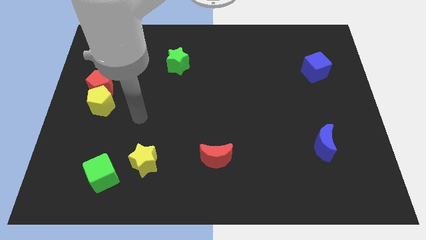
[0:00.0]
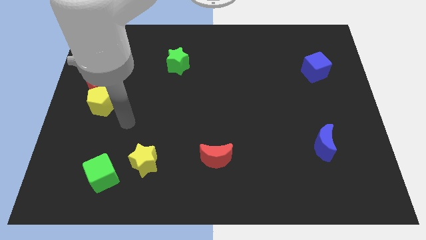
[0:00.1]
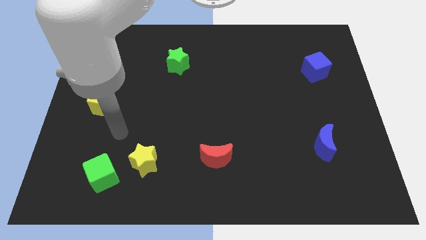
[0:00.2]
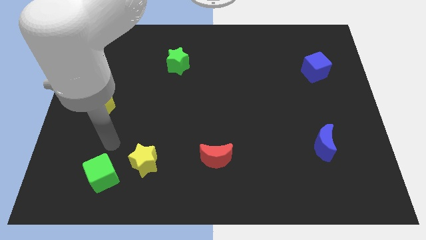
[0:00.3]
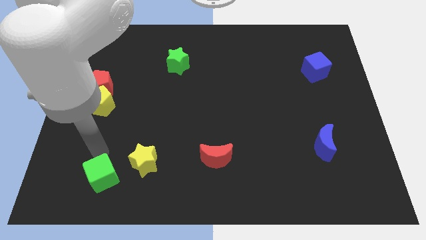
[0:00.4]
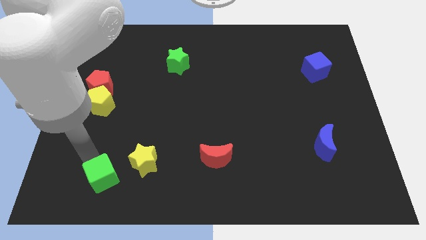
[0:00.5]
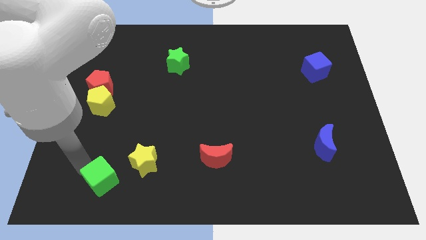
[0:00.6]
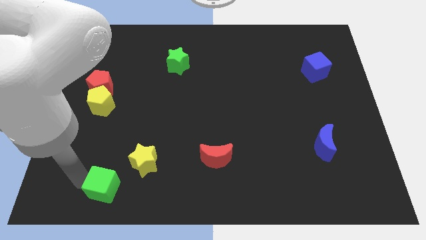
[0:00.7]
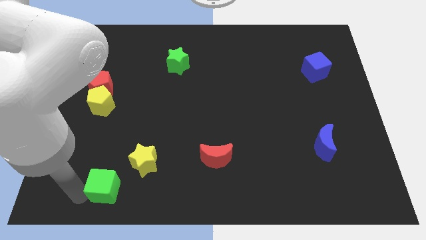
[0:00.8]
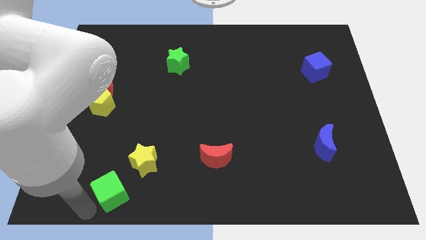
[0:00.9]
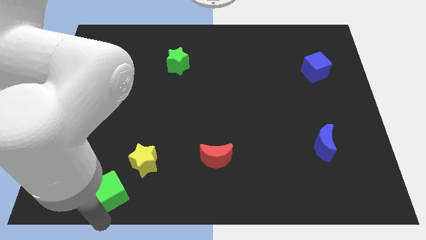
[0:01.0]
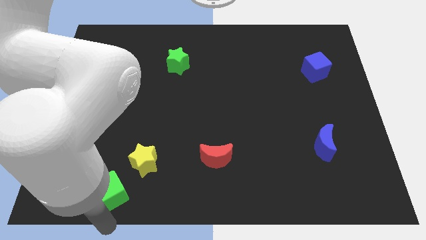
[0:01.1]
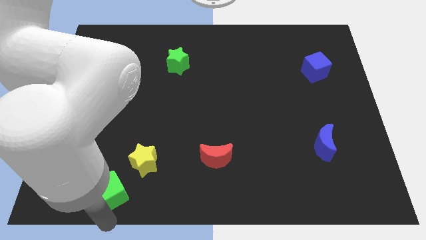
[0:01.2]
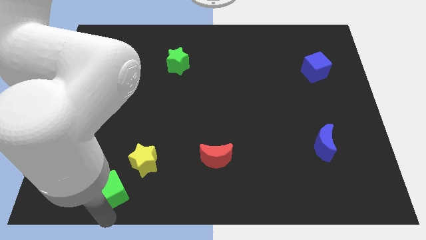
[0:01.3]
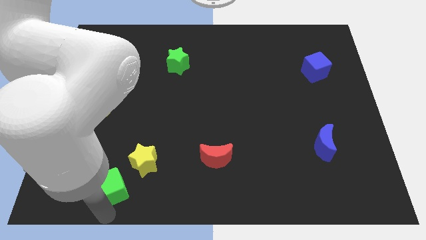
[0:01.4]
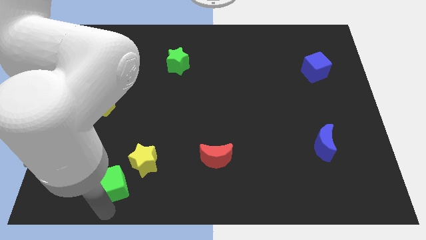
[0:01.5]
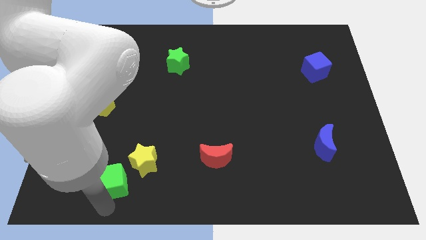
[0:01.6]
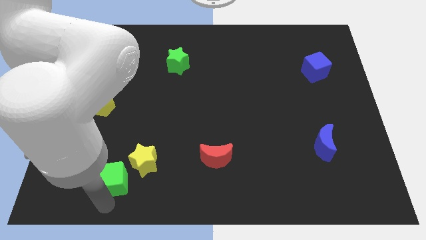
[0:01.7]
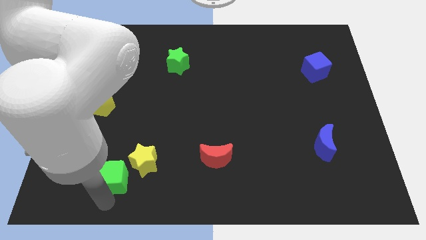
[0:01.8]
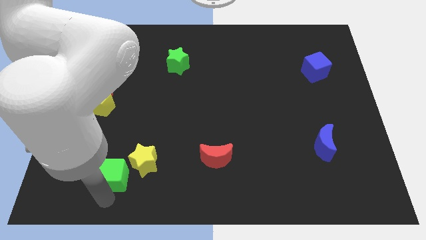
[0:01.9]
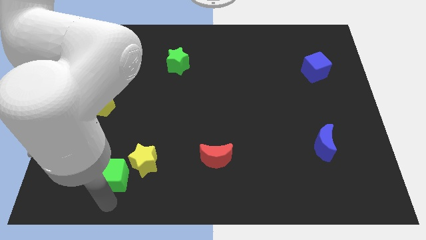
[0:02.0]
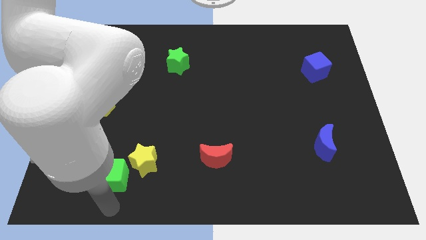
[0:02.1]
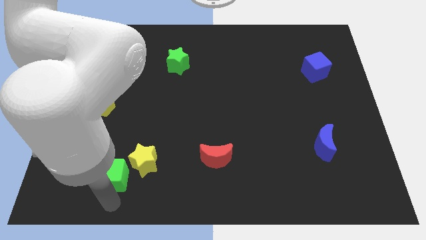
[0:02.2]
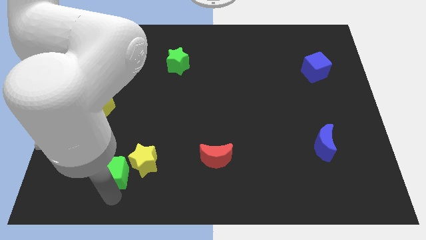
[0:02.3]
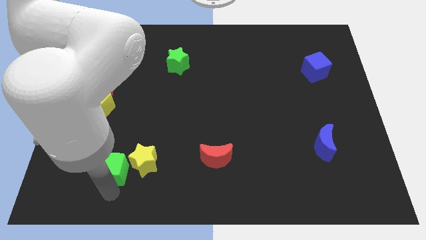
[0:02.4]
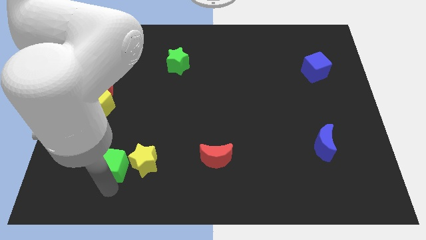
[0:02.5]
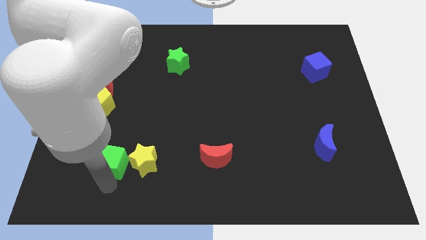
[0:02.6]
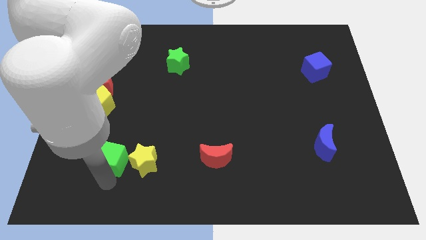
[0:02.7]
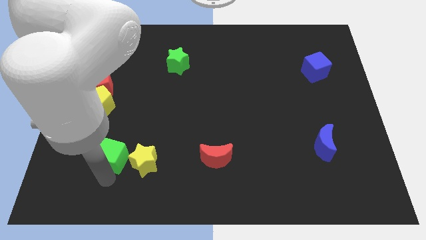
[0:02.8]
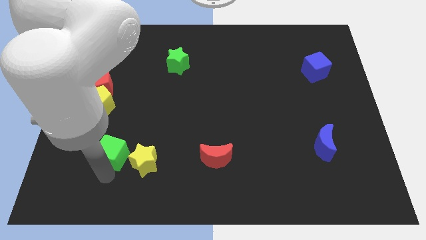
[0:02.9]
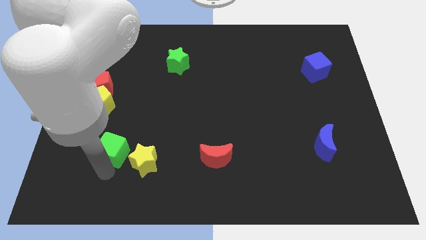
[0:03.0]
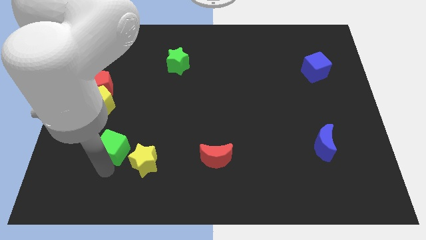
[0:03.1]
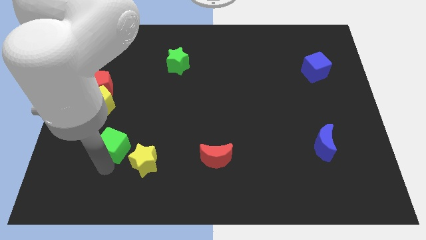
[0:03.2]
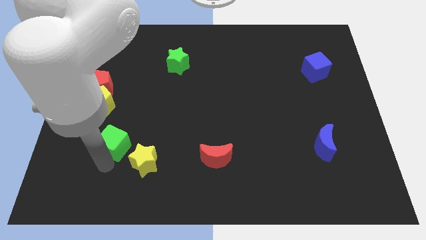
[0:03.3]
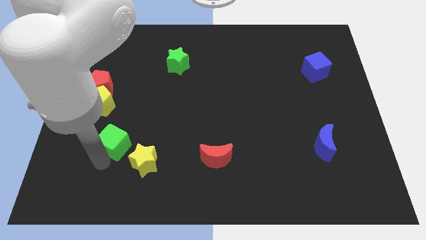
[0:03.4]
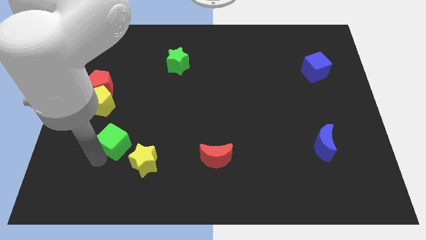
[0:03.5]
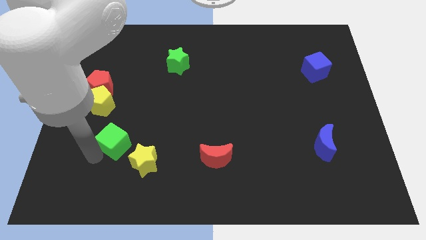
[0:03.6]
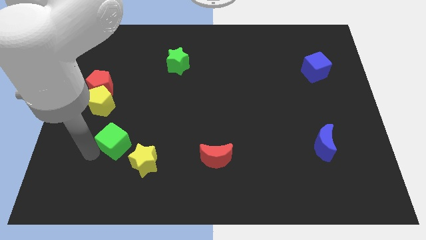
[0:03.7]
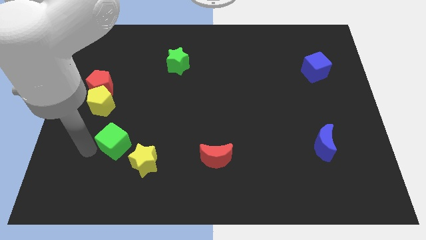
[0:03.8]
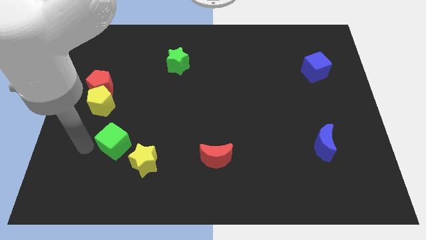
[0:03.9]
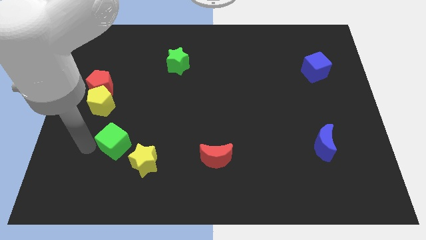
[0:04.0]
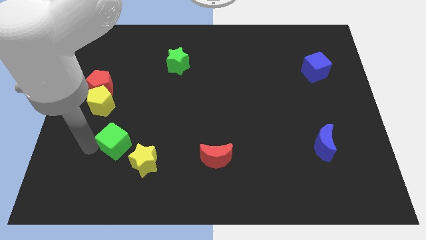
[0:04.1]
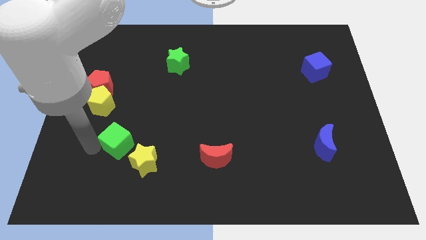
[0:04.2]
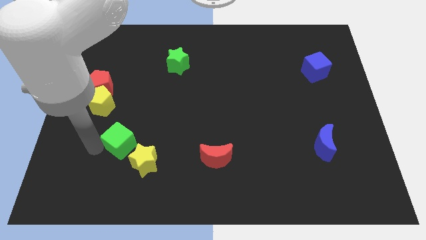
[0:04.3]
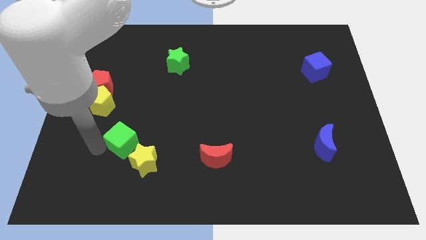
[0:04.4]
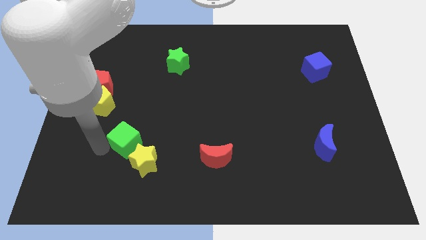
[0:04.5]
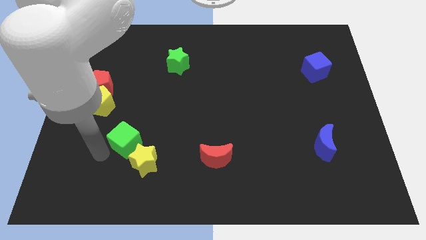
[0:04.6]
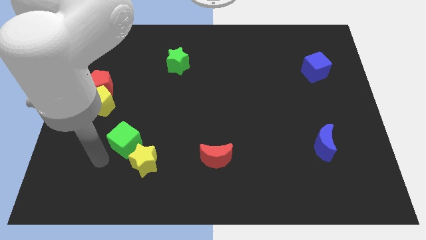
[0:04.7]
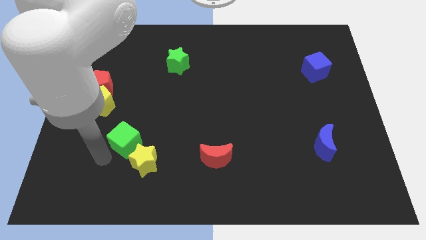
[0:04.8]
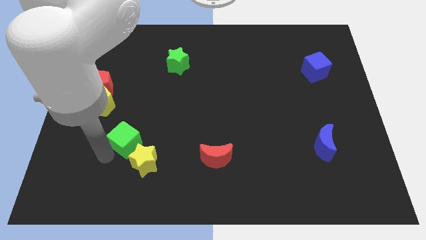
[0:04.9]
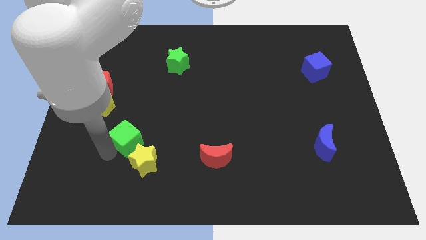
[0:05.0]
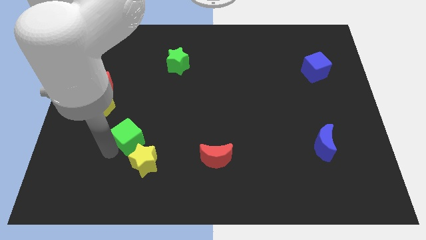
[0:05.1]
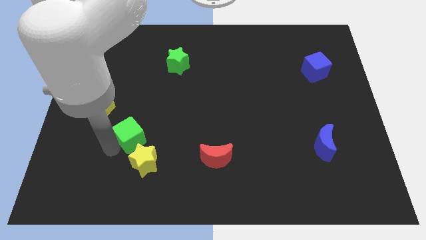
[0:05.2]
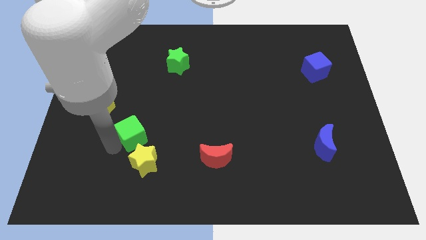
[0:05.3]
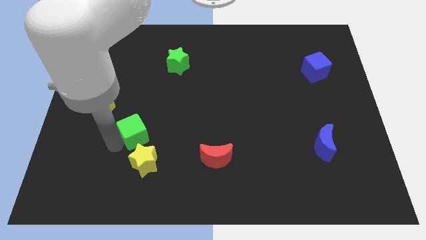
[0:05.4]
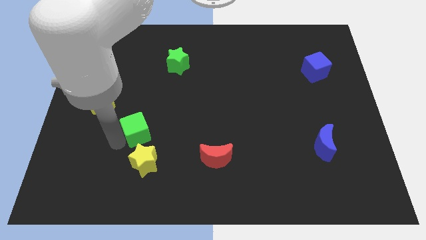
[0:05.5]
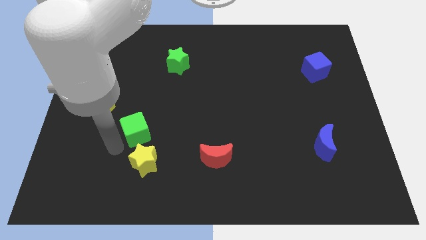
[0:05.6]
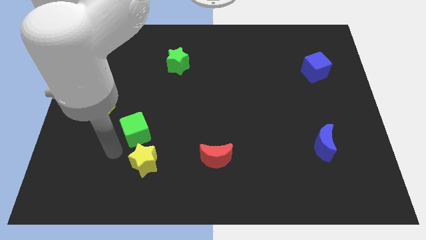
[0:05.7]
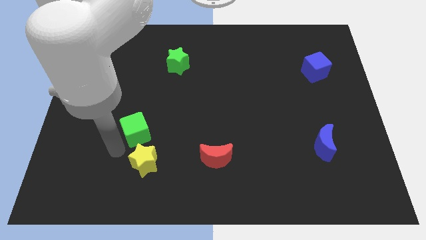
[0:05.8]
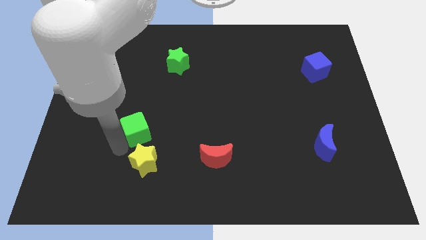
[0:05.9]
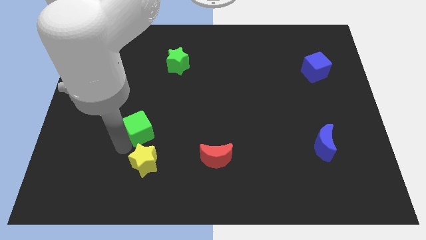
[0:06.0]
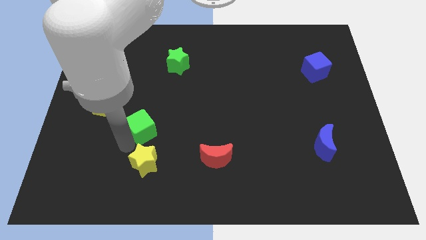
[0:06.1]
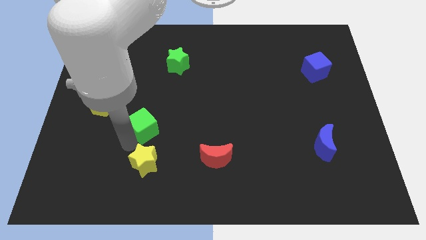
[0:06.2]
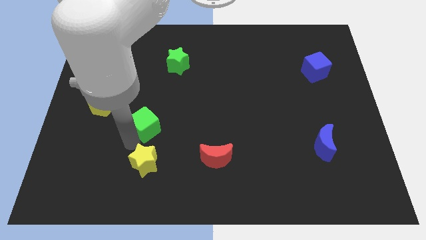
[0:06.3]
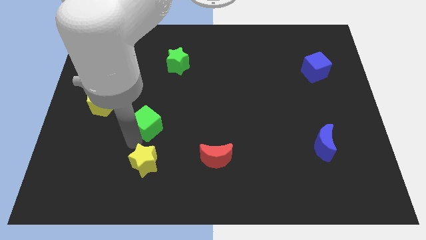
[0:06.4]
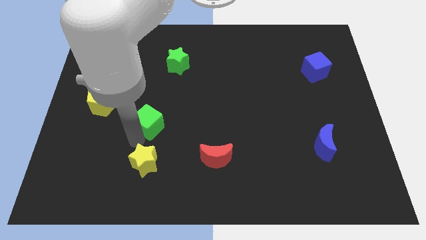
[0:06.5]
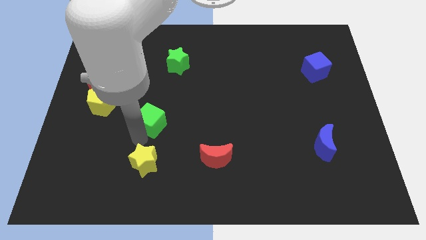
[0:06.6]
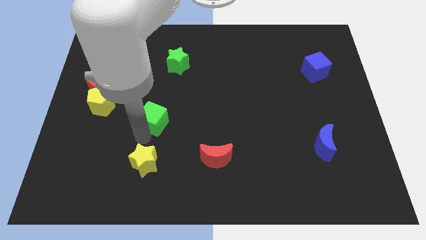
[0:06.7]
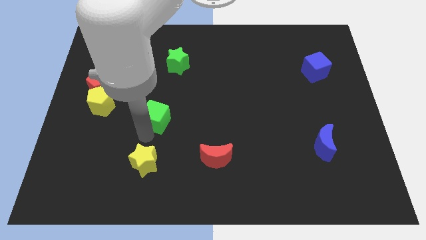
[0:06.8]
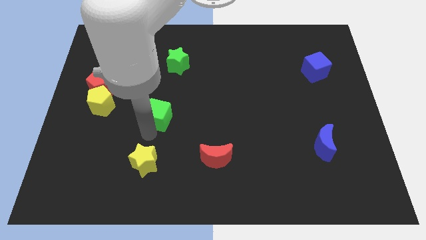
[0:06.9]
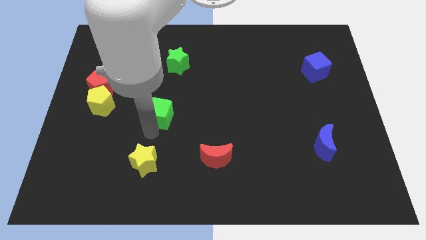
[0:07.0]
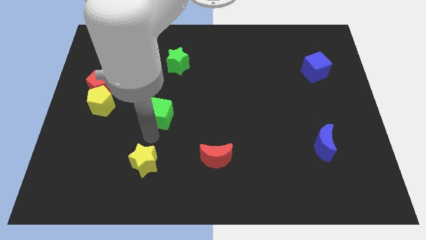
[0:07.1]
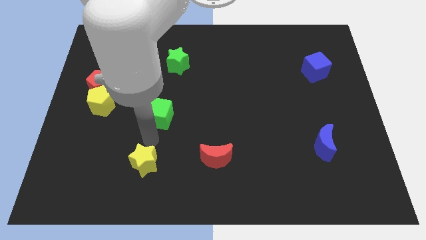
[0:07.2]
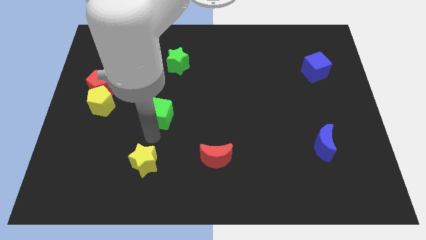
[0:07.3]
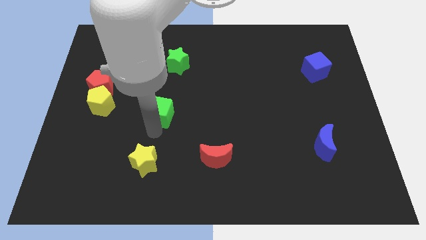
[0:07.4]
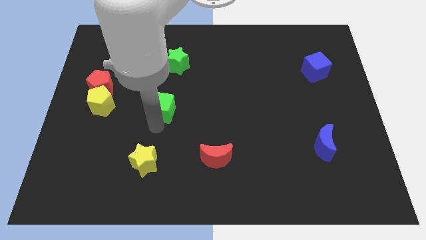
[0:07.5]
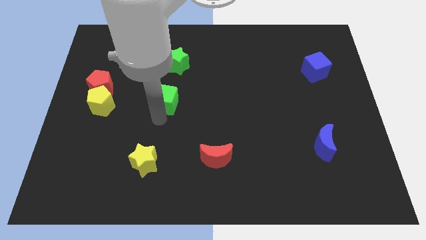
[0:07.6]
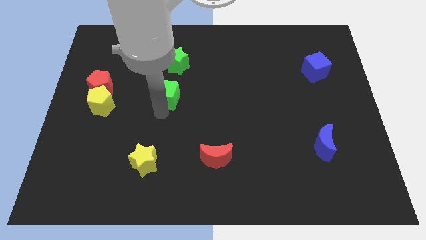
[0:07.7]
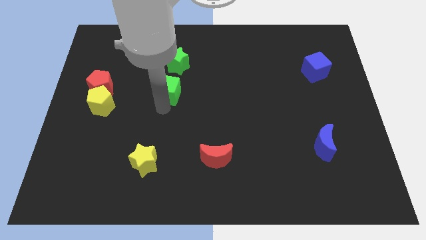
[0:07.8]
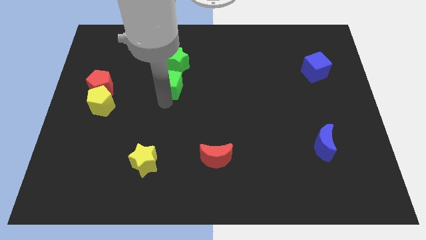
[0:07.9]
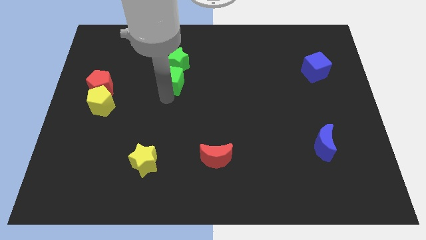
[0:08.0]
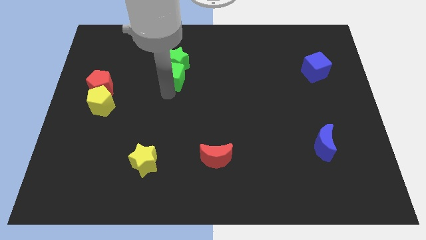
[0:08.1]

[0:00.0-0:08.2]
put the green cube towards the green star
